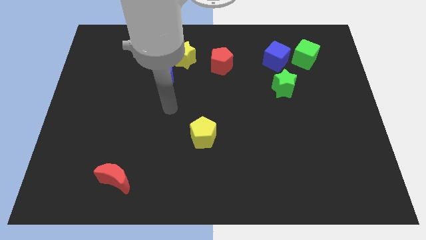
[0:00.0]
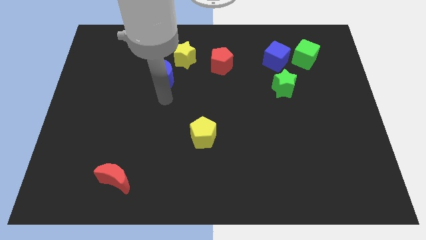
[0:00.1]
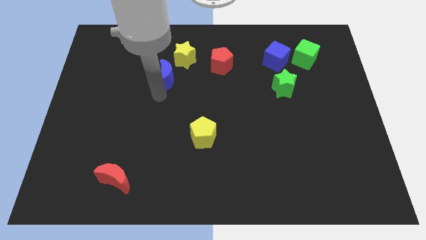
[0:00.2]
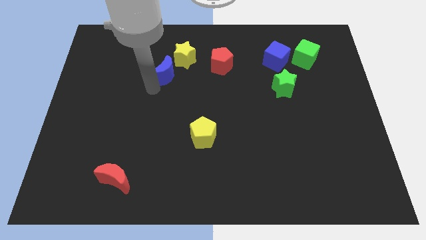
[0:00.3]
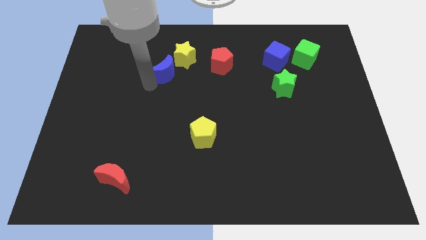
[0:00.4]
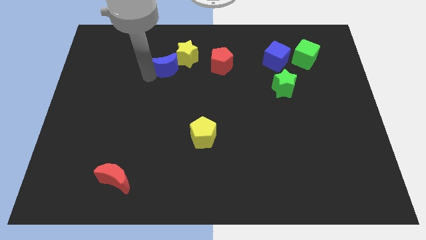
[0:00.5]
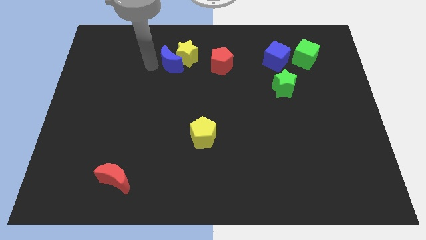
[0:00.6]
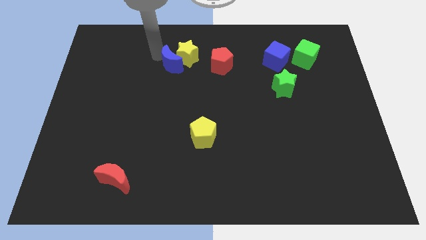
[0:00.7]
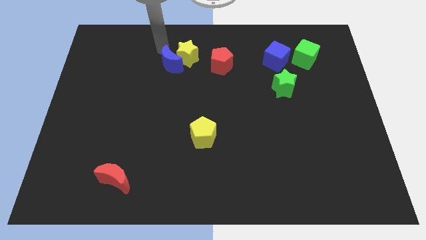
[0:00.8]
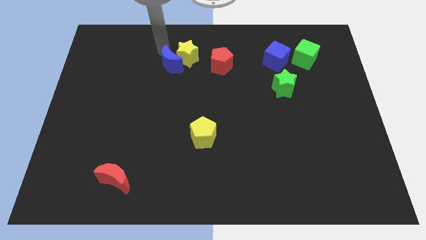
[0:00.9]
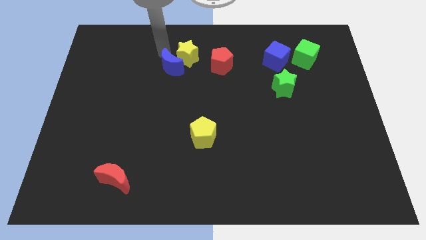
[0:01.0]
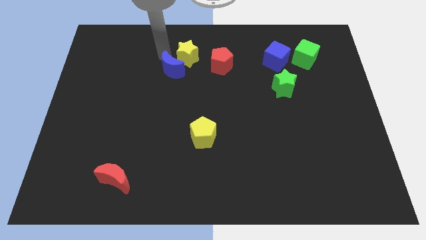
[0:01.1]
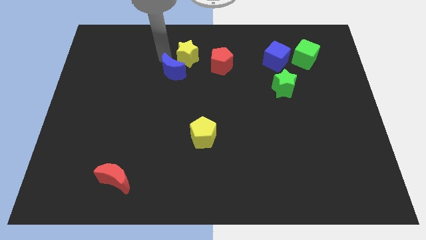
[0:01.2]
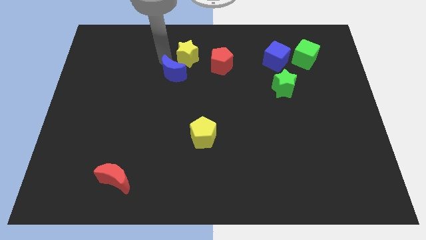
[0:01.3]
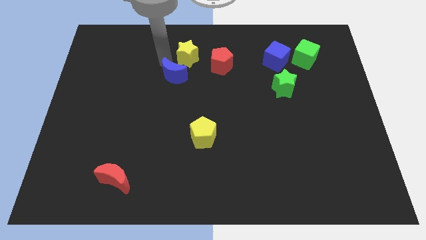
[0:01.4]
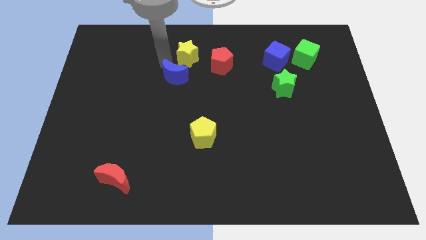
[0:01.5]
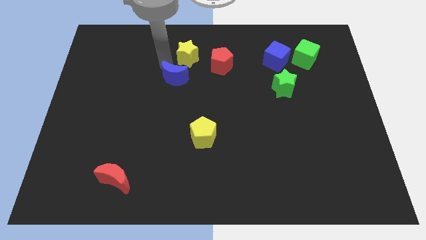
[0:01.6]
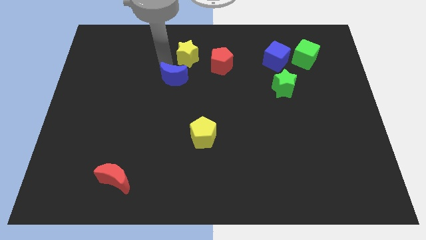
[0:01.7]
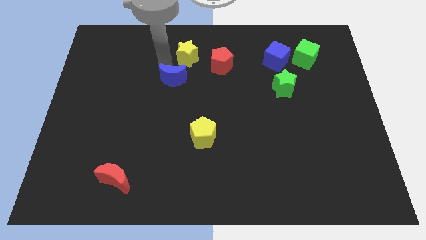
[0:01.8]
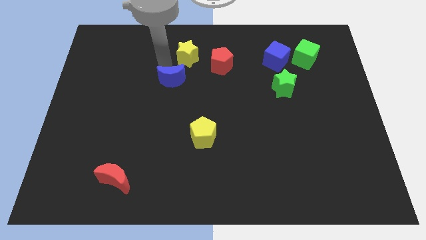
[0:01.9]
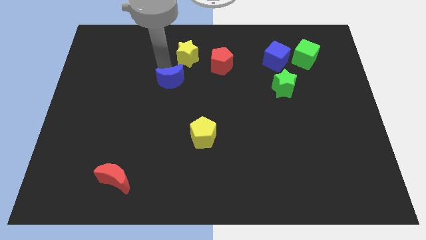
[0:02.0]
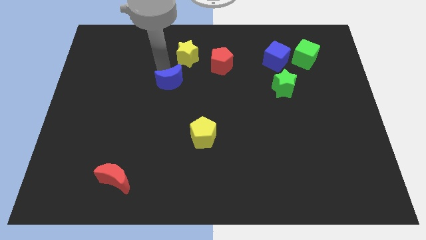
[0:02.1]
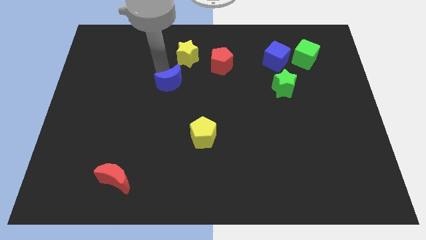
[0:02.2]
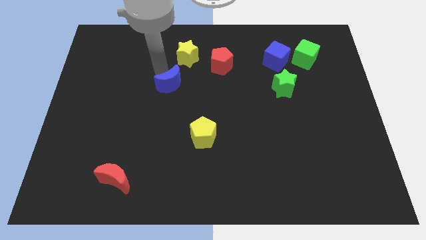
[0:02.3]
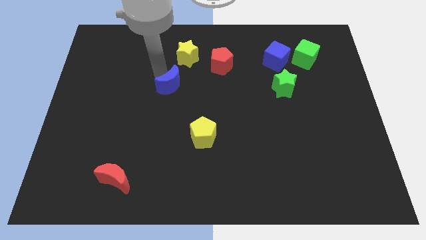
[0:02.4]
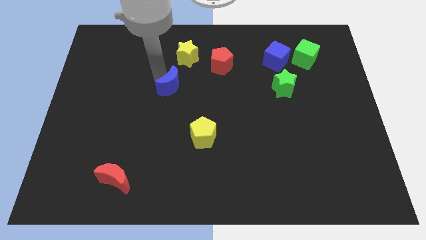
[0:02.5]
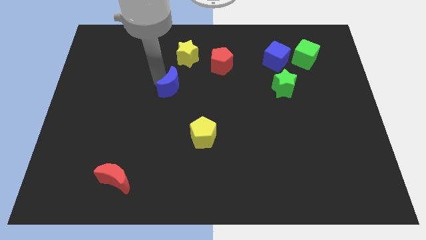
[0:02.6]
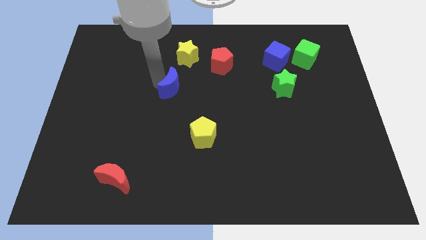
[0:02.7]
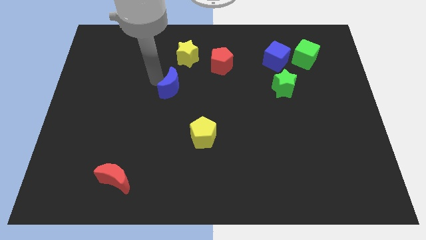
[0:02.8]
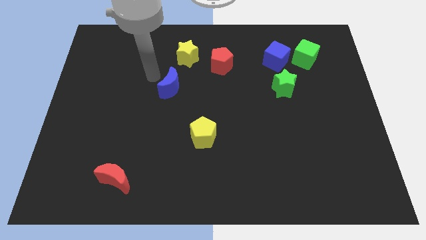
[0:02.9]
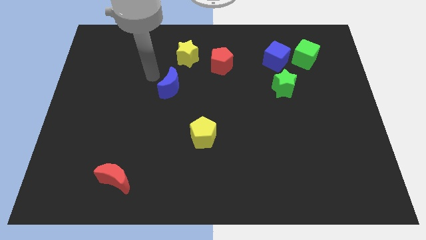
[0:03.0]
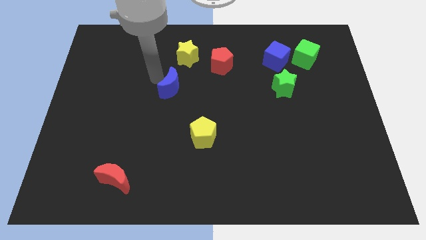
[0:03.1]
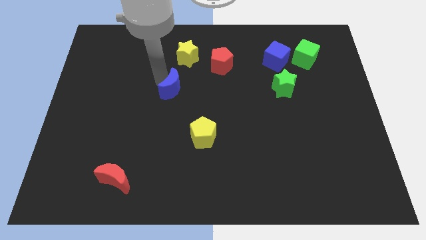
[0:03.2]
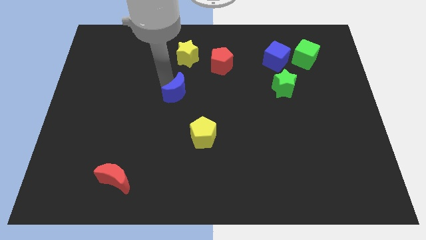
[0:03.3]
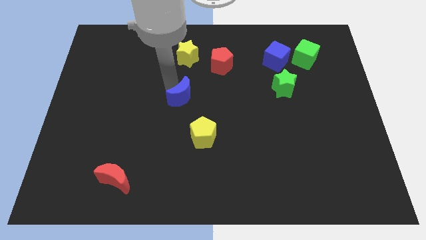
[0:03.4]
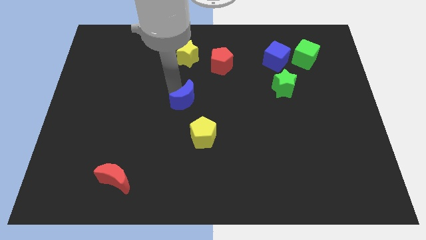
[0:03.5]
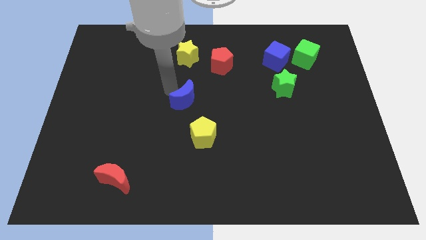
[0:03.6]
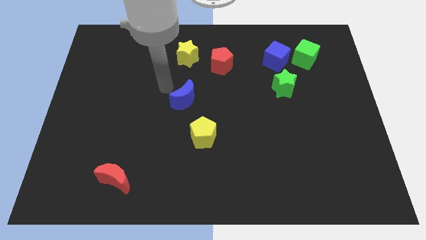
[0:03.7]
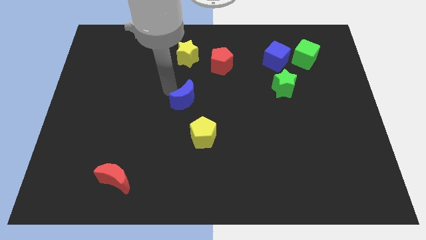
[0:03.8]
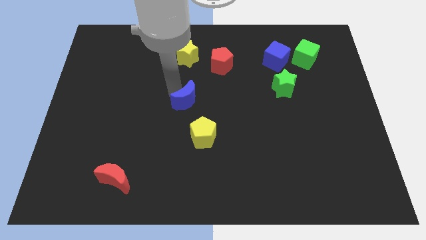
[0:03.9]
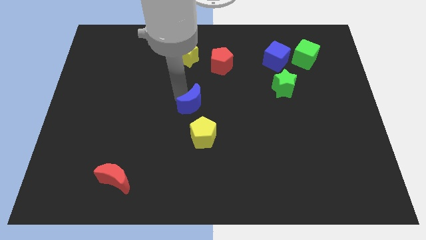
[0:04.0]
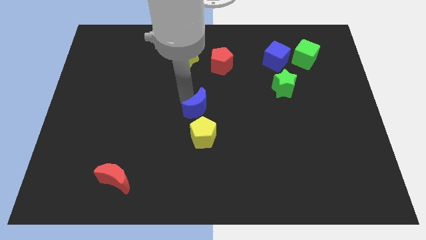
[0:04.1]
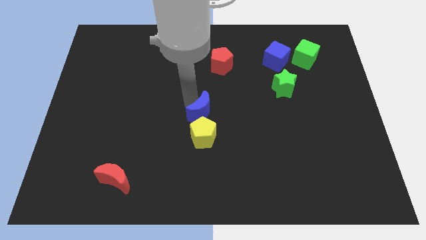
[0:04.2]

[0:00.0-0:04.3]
push the blue moon diagonally up and to the right of the yellow pentagon

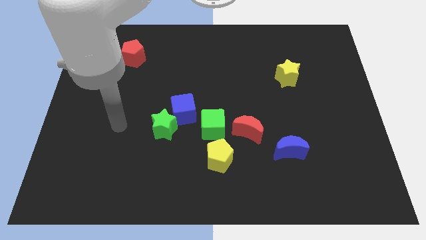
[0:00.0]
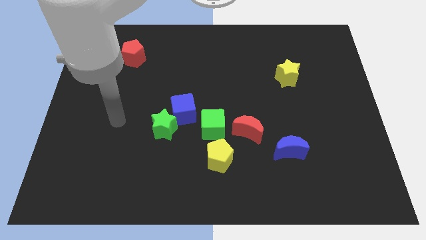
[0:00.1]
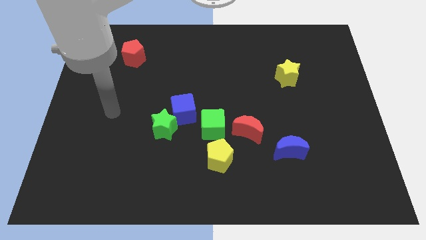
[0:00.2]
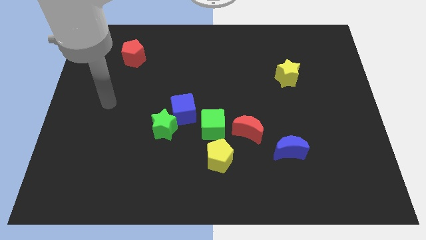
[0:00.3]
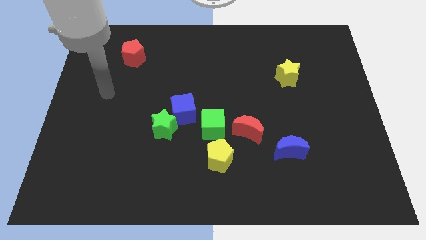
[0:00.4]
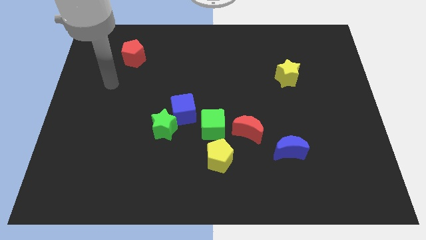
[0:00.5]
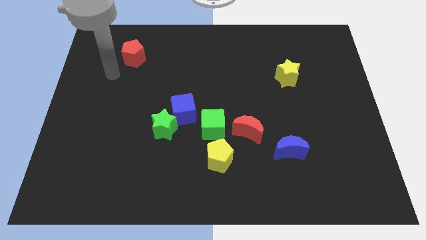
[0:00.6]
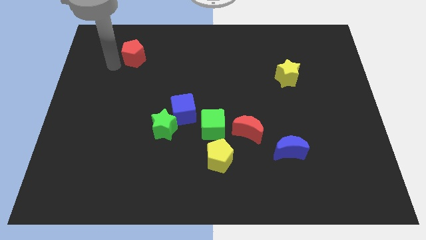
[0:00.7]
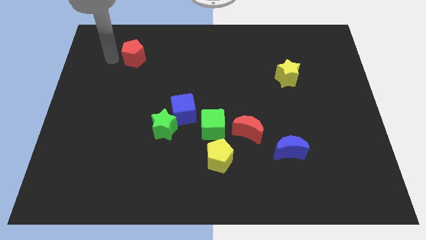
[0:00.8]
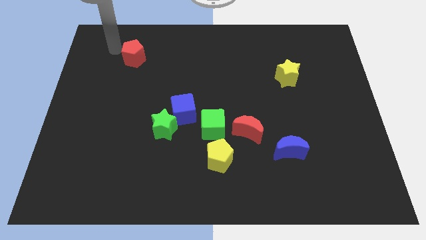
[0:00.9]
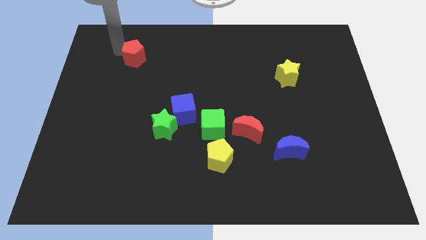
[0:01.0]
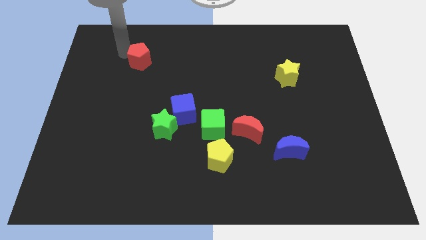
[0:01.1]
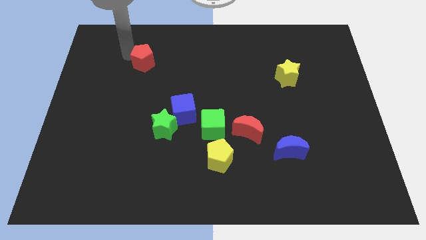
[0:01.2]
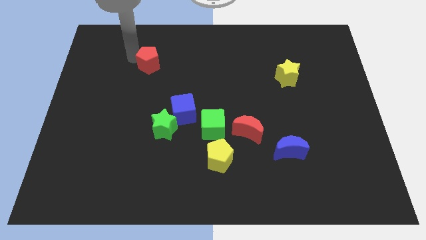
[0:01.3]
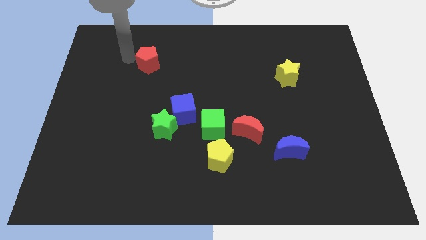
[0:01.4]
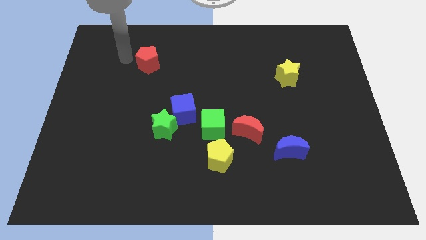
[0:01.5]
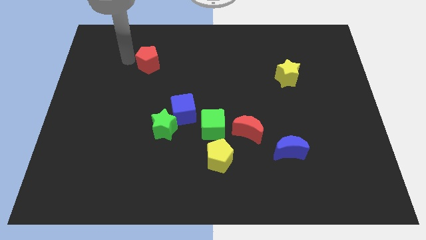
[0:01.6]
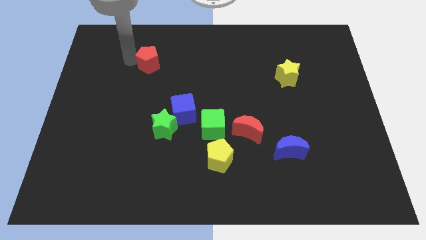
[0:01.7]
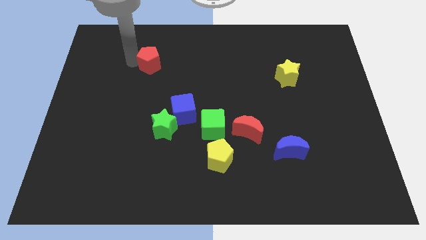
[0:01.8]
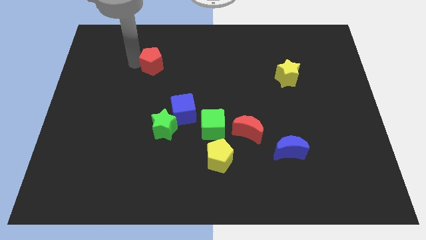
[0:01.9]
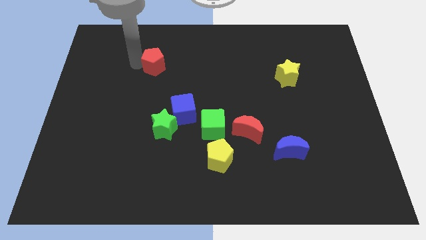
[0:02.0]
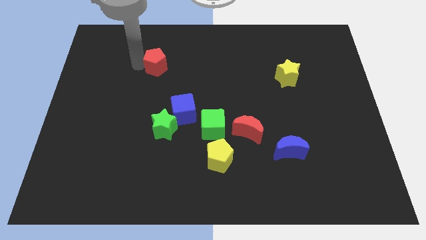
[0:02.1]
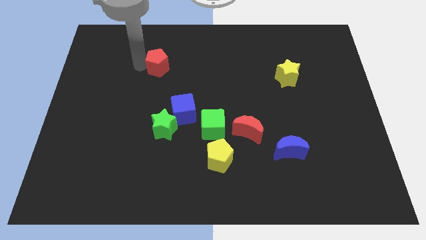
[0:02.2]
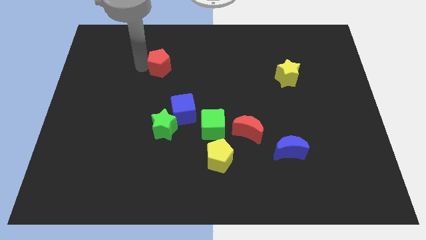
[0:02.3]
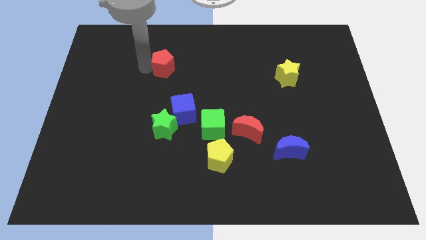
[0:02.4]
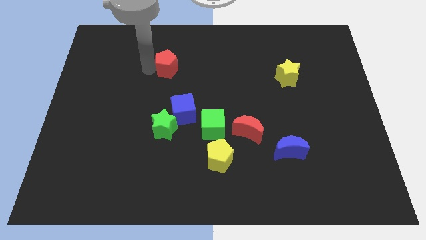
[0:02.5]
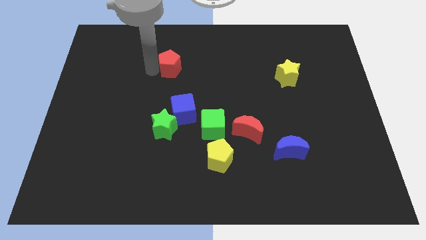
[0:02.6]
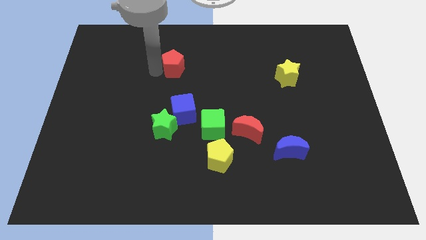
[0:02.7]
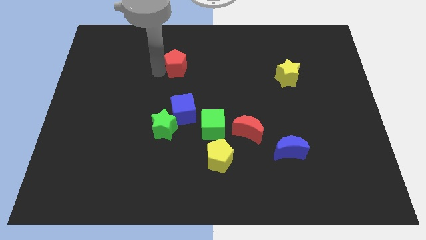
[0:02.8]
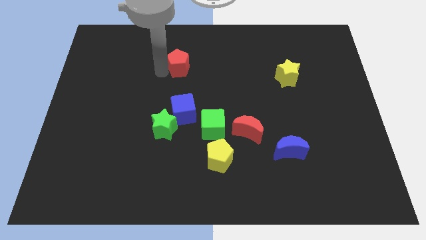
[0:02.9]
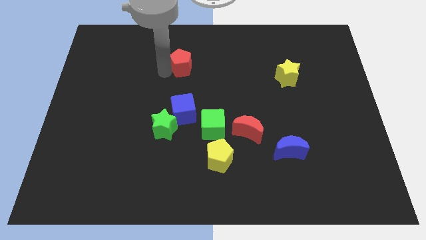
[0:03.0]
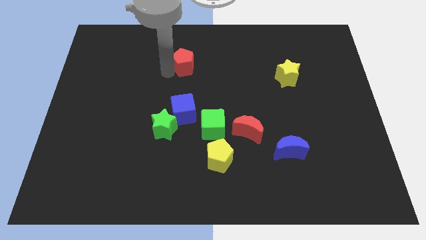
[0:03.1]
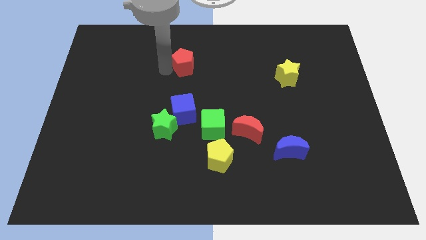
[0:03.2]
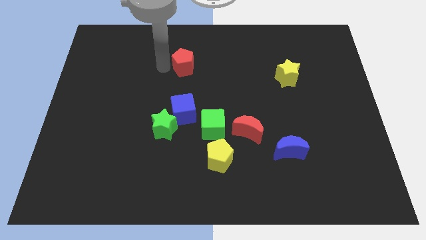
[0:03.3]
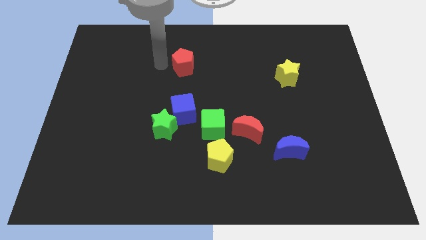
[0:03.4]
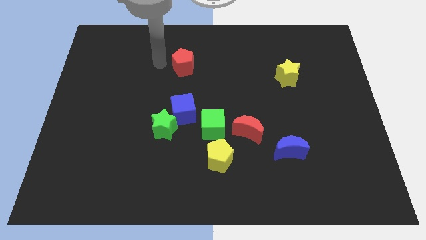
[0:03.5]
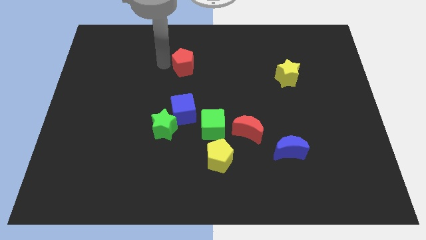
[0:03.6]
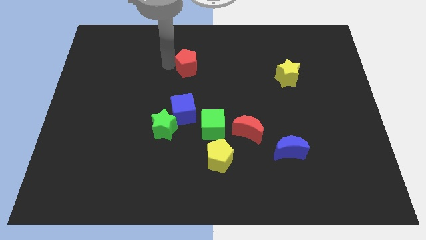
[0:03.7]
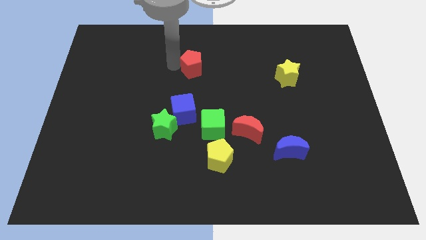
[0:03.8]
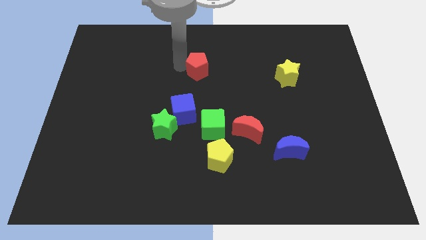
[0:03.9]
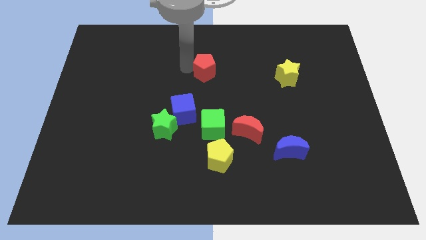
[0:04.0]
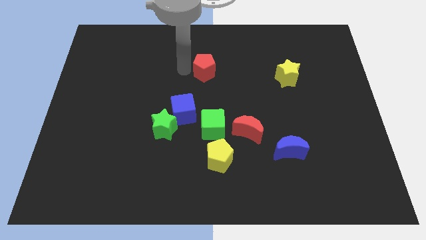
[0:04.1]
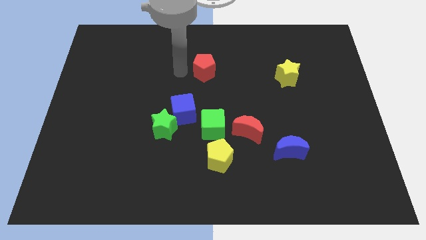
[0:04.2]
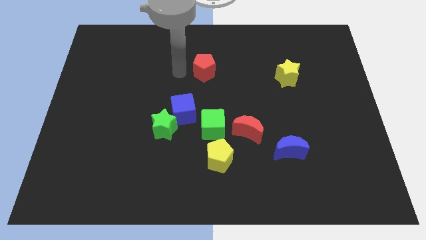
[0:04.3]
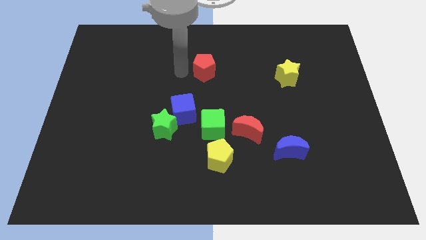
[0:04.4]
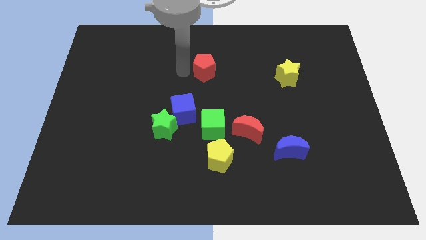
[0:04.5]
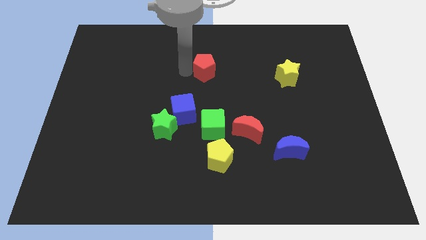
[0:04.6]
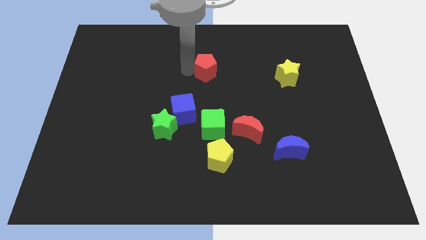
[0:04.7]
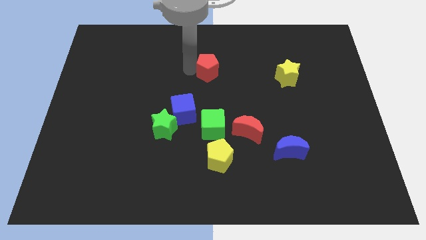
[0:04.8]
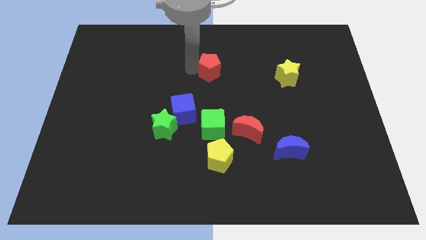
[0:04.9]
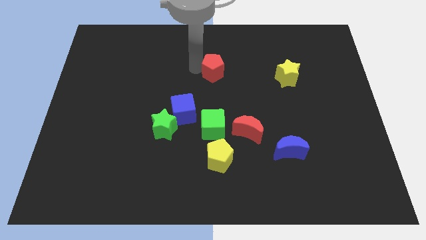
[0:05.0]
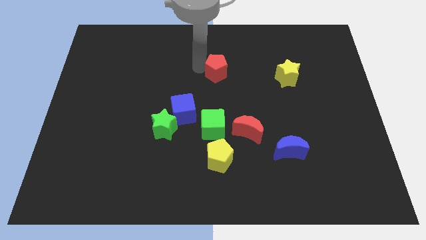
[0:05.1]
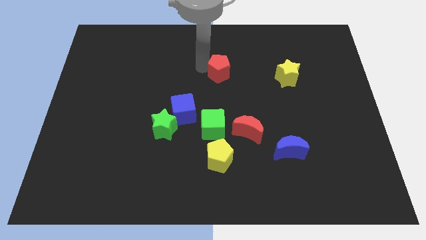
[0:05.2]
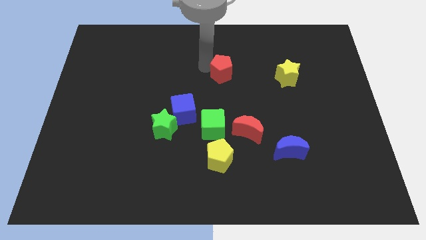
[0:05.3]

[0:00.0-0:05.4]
put the red pentagon to the left side of the yellow star
